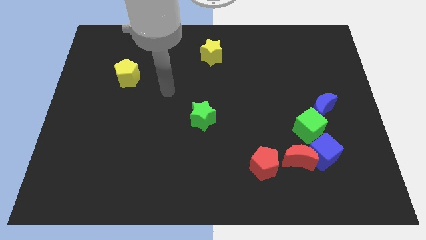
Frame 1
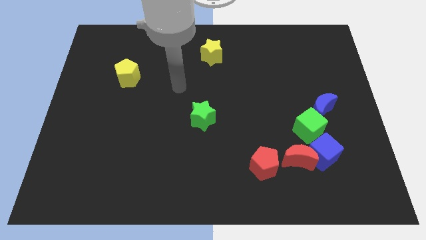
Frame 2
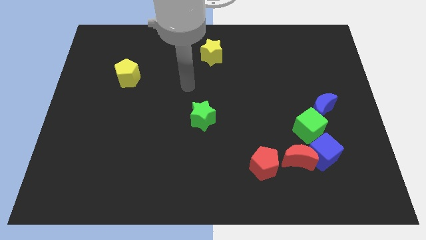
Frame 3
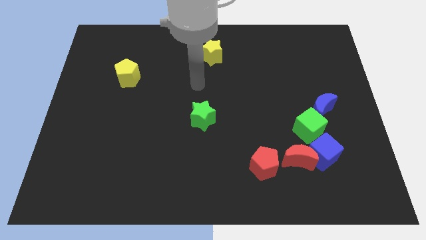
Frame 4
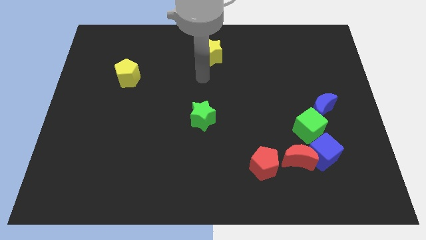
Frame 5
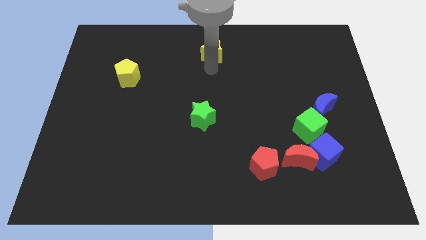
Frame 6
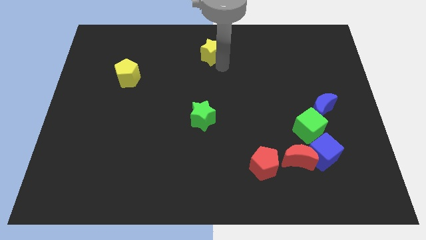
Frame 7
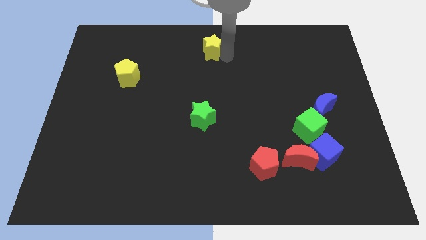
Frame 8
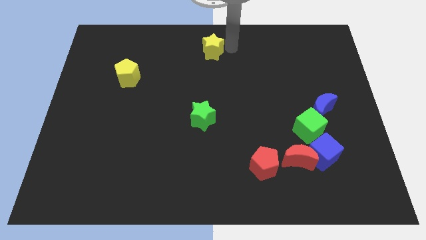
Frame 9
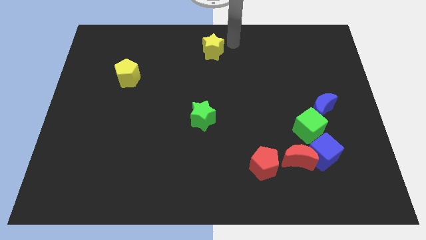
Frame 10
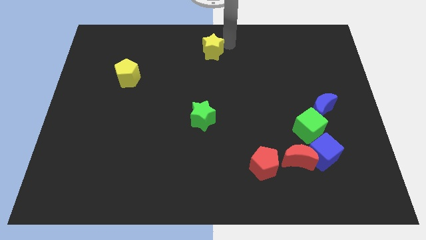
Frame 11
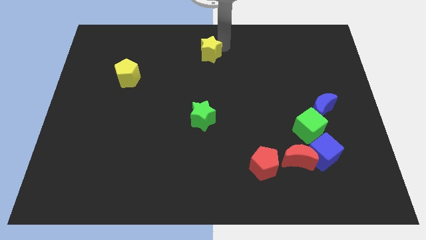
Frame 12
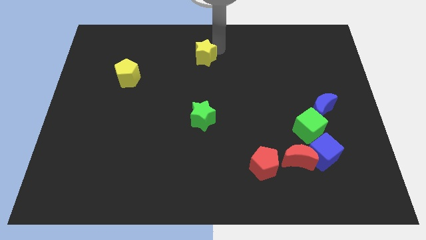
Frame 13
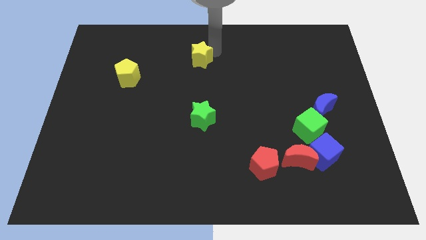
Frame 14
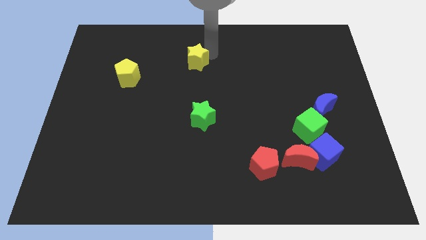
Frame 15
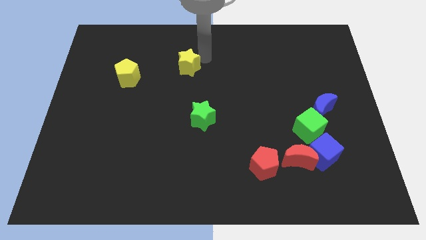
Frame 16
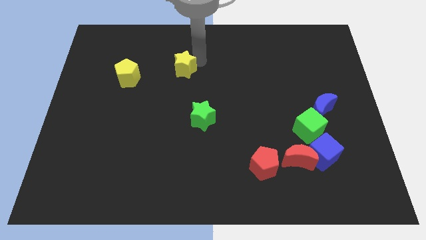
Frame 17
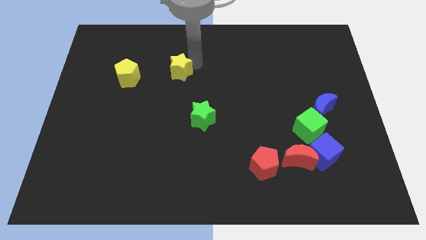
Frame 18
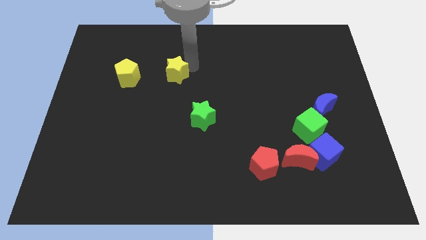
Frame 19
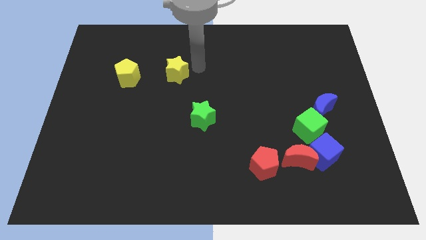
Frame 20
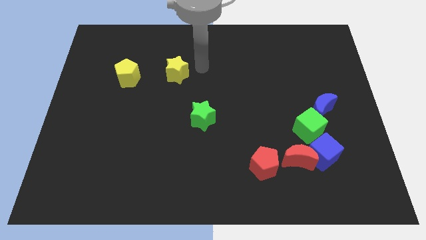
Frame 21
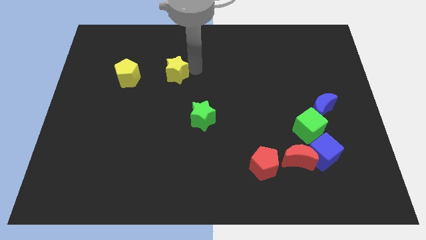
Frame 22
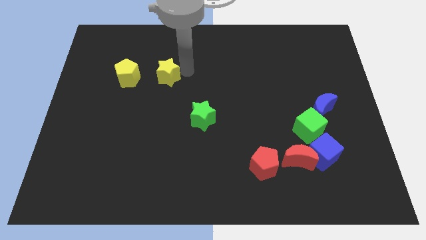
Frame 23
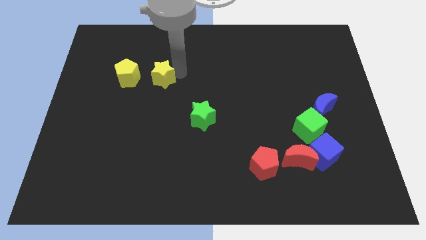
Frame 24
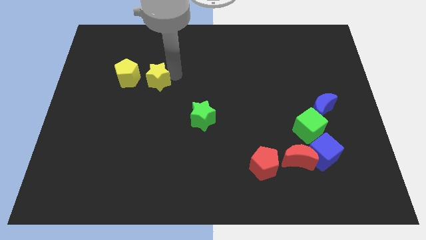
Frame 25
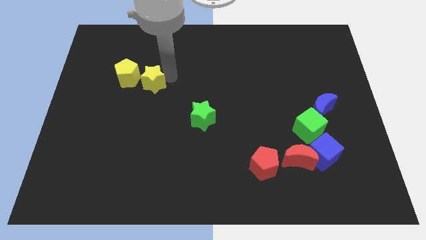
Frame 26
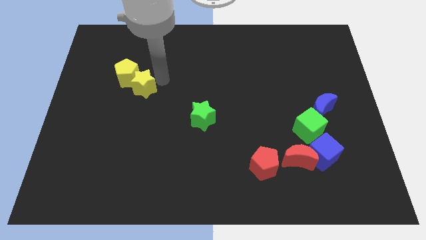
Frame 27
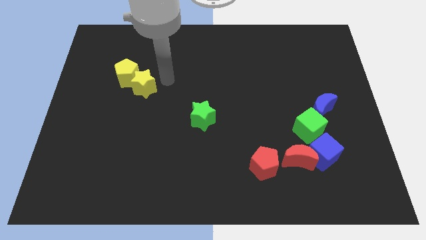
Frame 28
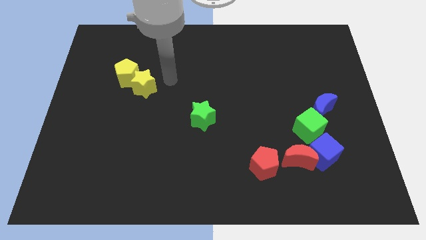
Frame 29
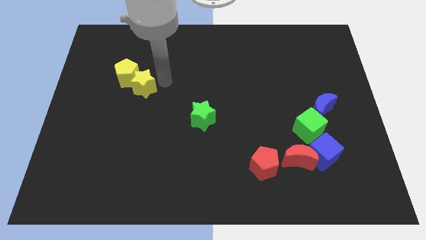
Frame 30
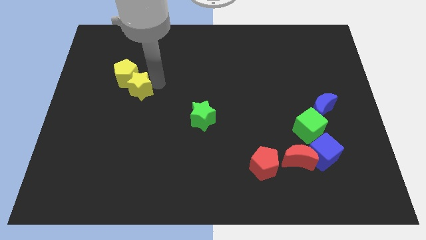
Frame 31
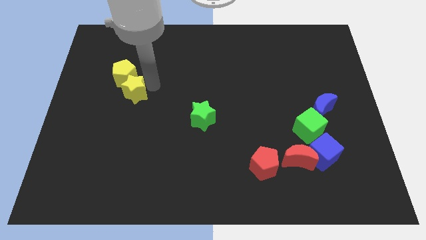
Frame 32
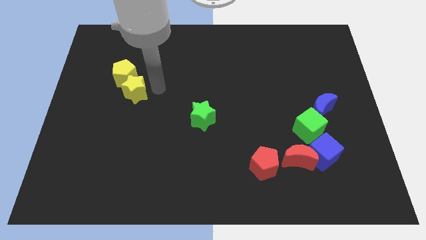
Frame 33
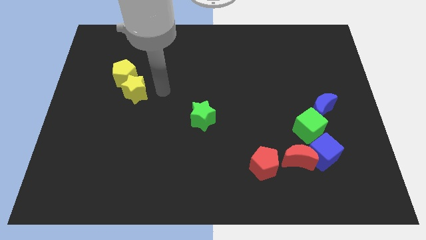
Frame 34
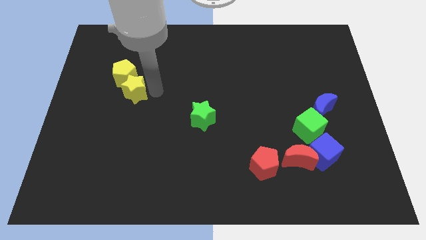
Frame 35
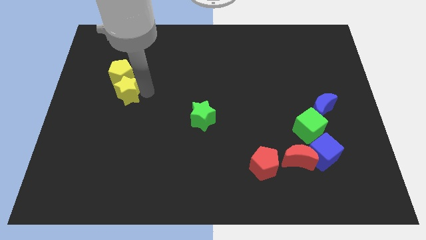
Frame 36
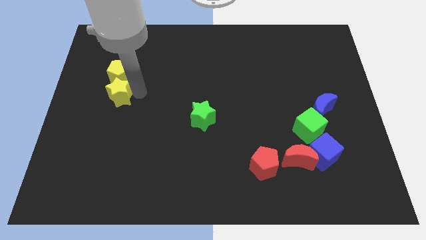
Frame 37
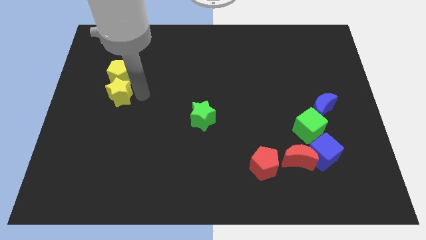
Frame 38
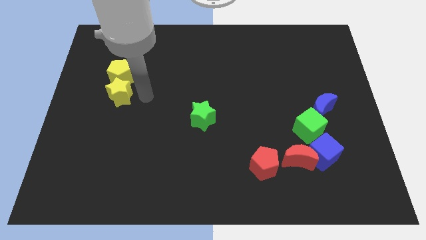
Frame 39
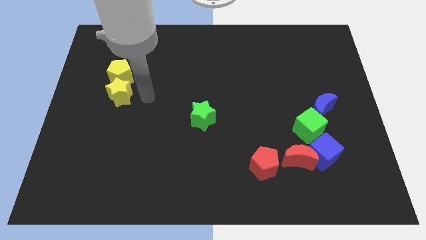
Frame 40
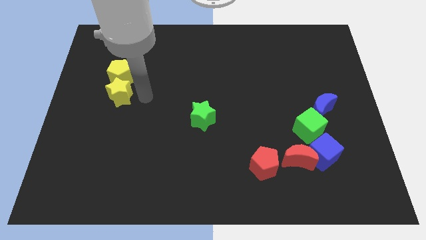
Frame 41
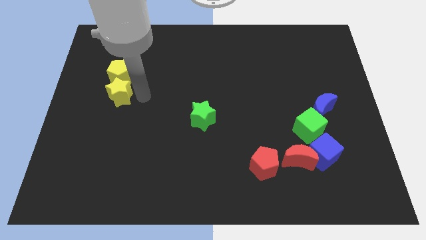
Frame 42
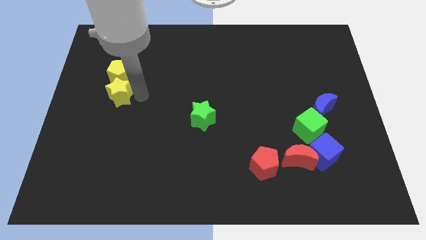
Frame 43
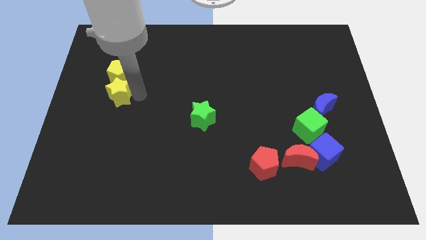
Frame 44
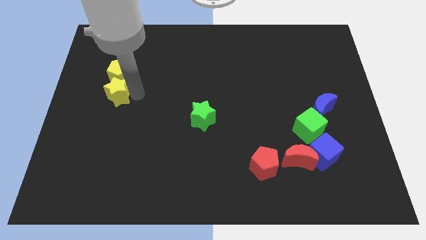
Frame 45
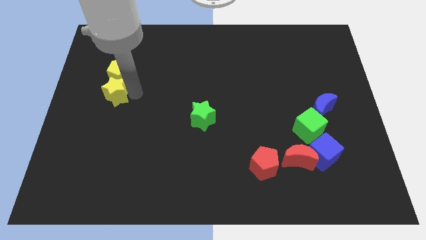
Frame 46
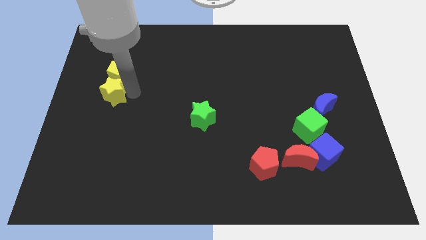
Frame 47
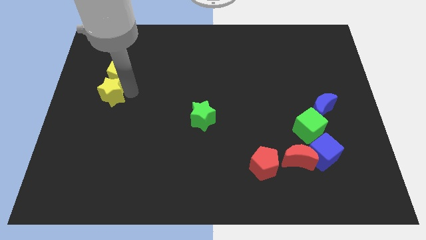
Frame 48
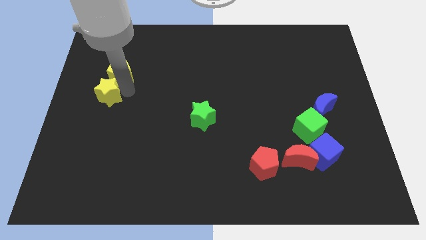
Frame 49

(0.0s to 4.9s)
slide the yellow star to the left side

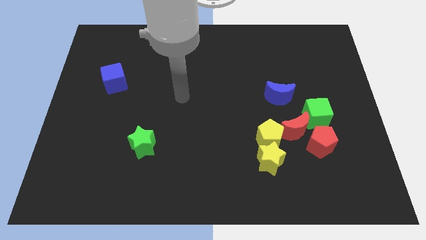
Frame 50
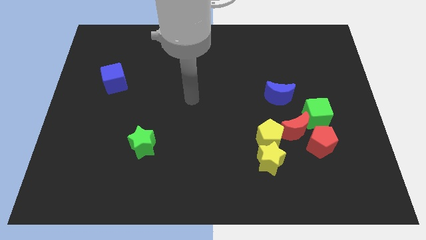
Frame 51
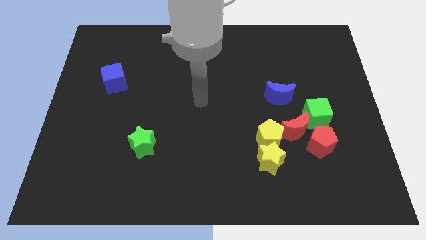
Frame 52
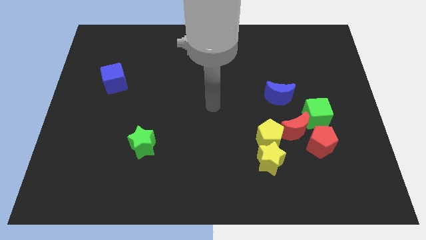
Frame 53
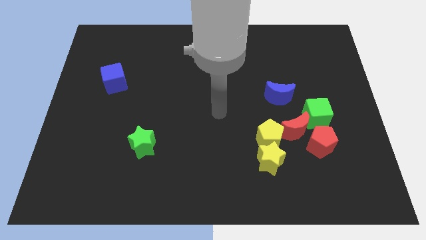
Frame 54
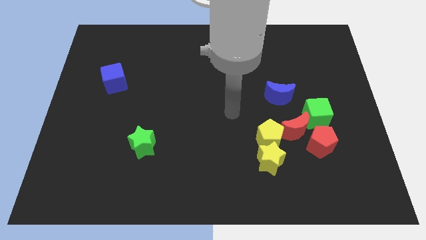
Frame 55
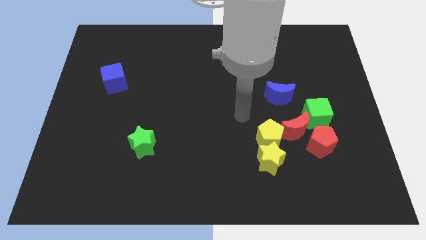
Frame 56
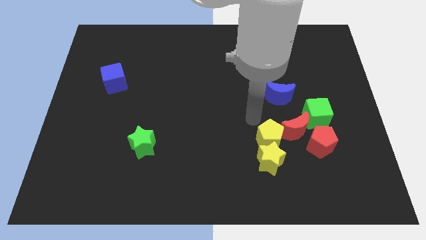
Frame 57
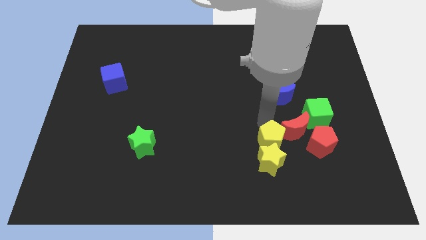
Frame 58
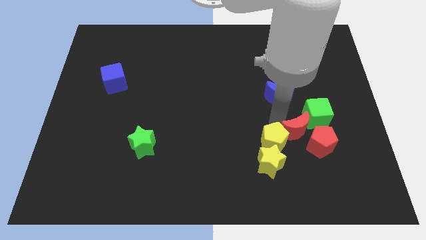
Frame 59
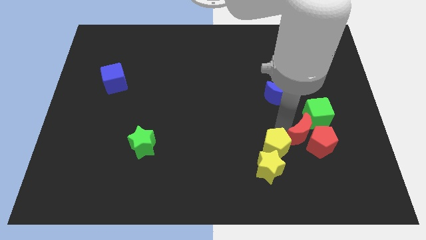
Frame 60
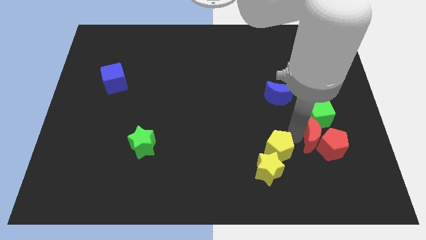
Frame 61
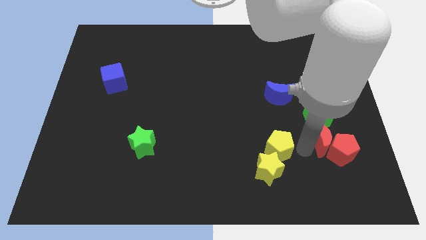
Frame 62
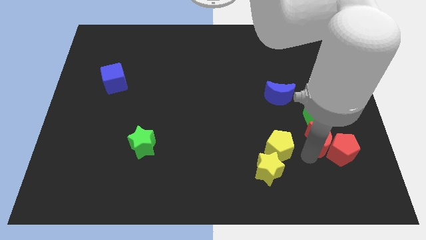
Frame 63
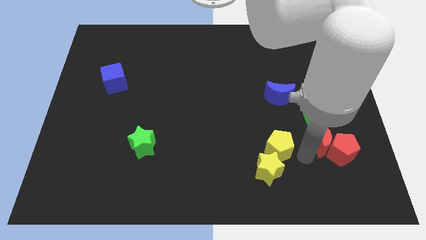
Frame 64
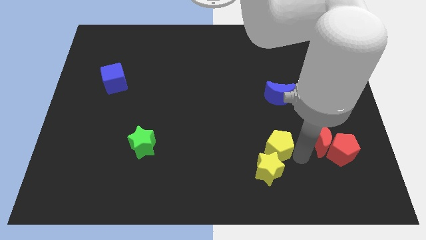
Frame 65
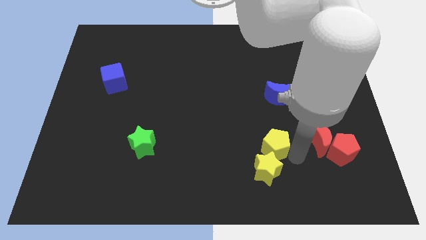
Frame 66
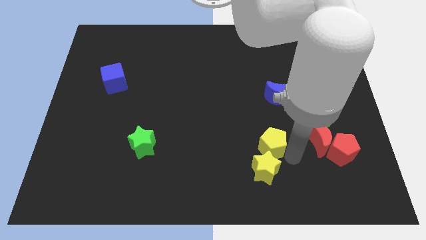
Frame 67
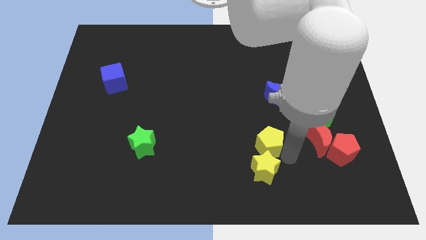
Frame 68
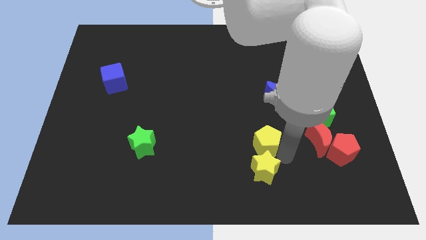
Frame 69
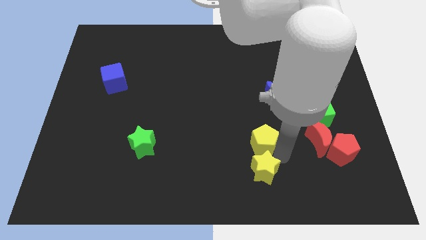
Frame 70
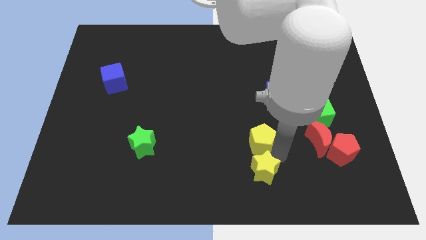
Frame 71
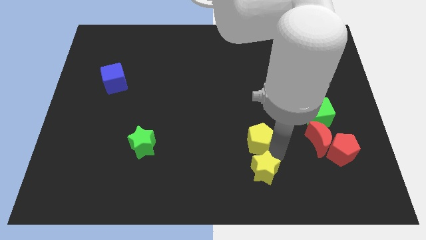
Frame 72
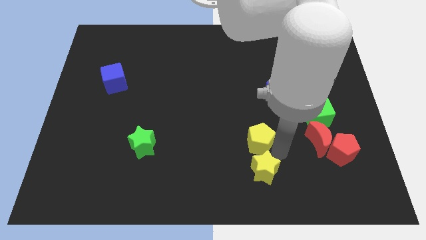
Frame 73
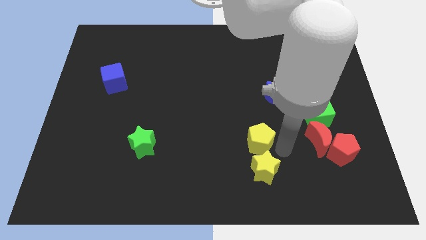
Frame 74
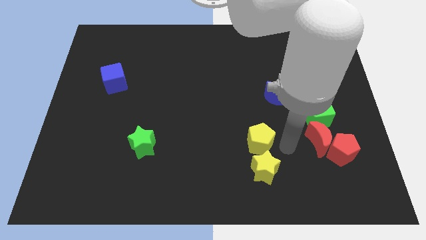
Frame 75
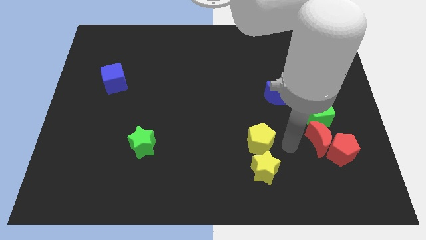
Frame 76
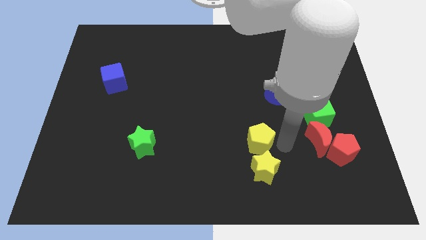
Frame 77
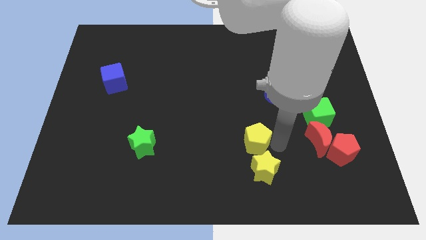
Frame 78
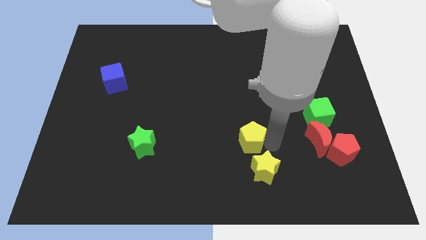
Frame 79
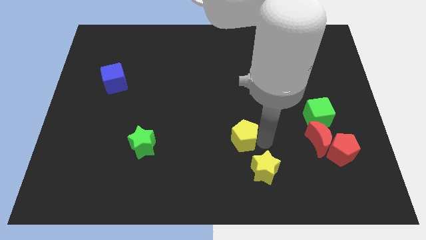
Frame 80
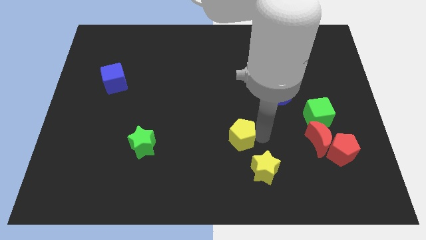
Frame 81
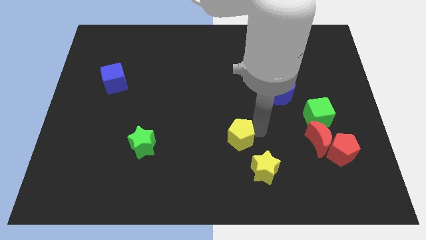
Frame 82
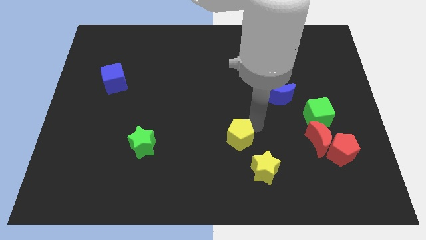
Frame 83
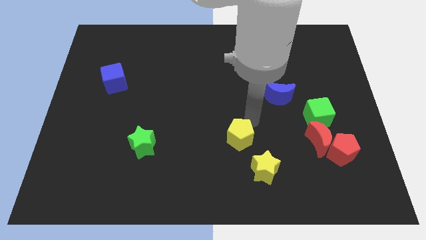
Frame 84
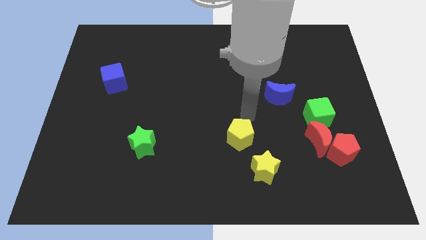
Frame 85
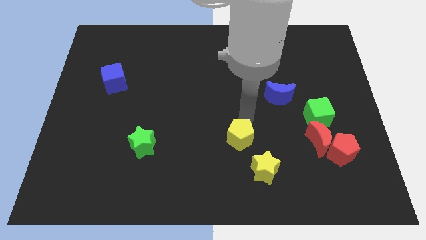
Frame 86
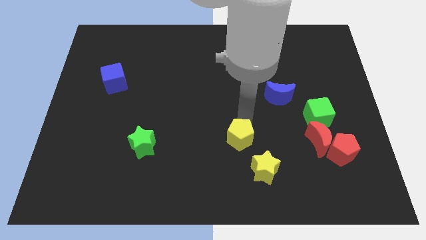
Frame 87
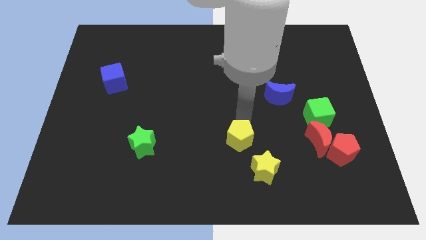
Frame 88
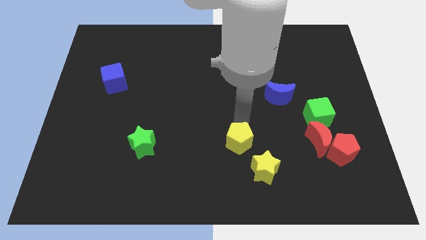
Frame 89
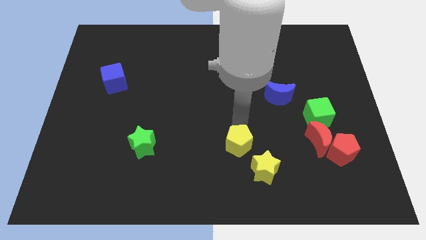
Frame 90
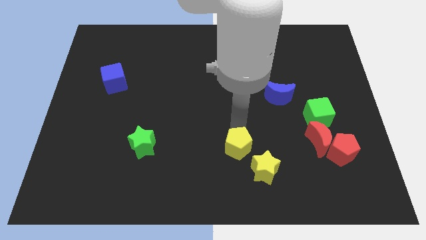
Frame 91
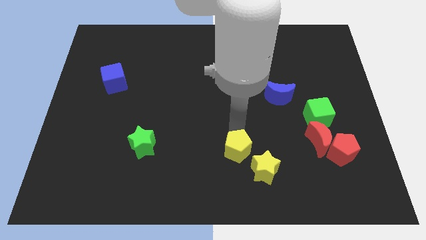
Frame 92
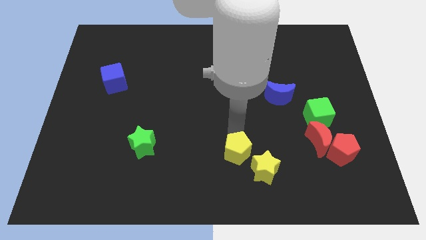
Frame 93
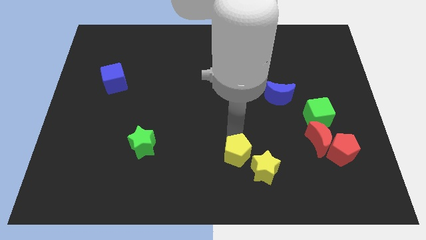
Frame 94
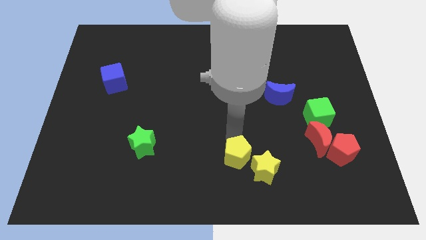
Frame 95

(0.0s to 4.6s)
move the yellow pentagon to the bottom
